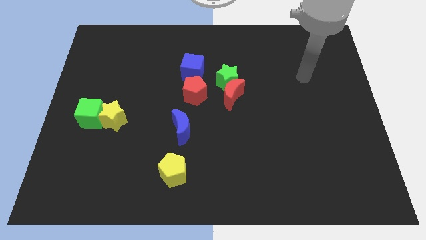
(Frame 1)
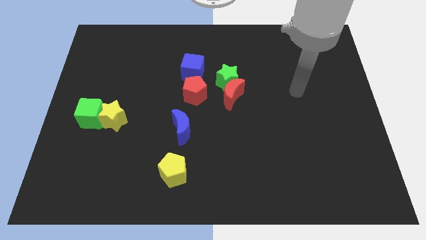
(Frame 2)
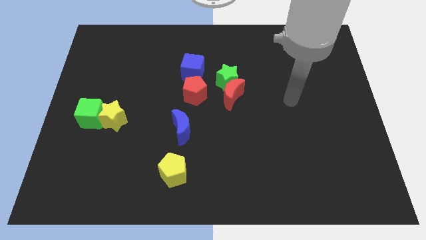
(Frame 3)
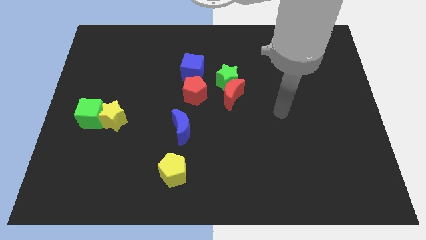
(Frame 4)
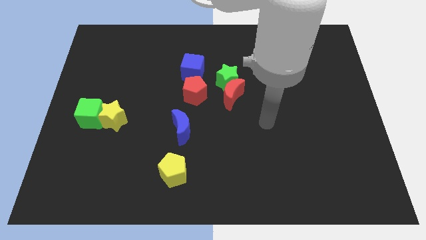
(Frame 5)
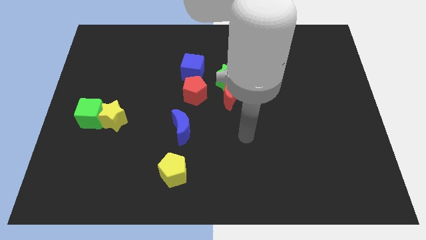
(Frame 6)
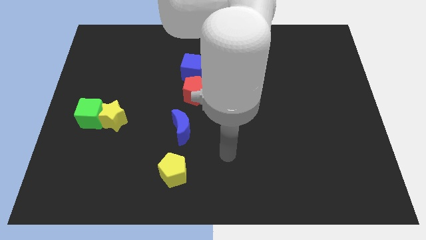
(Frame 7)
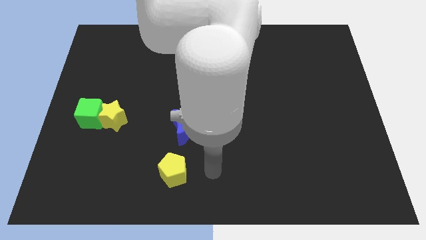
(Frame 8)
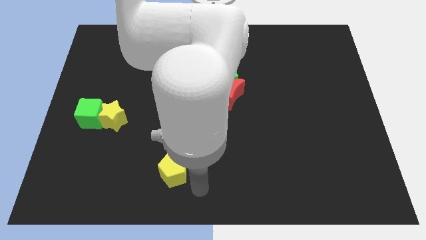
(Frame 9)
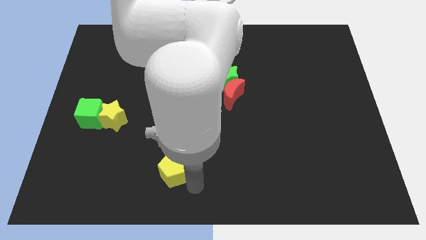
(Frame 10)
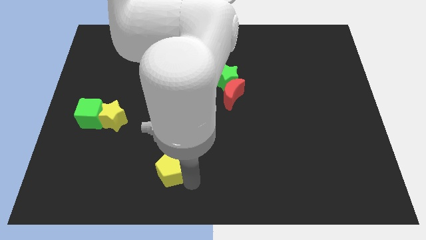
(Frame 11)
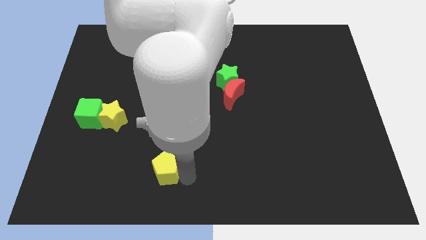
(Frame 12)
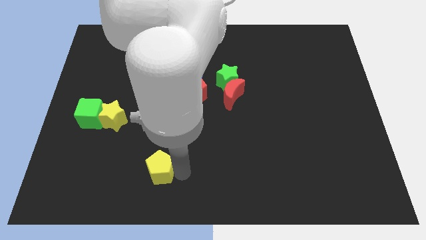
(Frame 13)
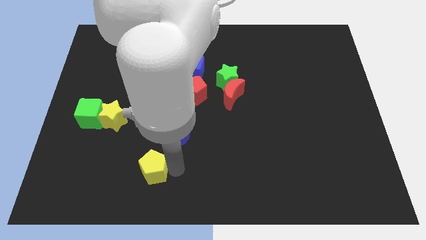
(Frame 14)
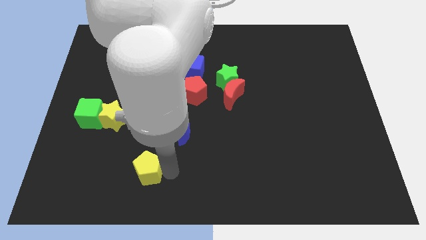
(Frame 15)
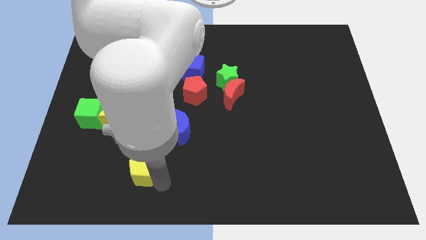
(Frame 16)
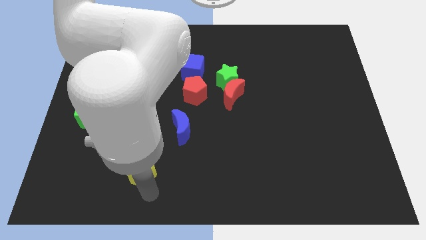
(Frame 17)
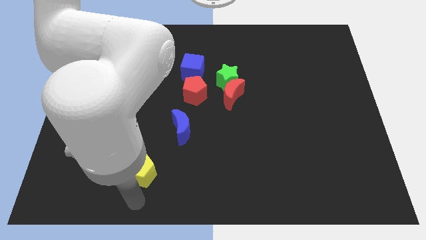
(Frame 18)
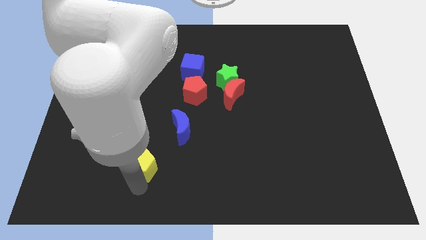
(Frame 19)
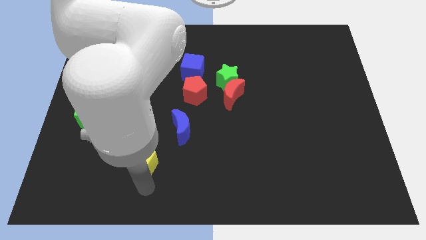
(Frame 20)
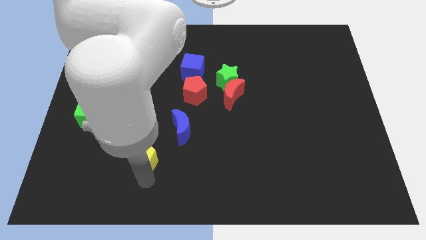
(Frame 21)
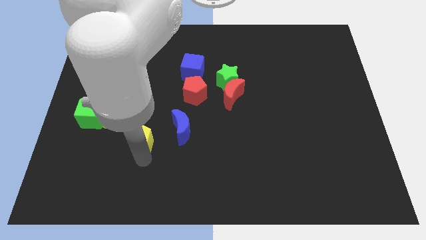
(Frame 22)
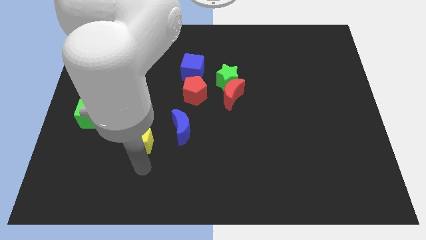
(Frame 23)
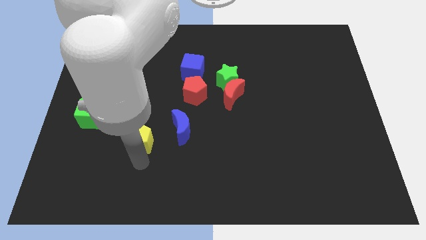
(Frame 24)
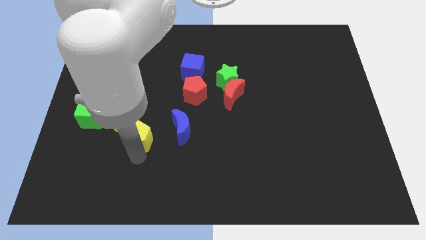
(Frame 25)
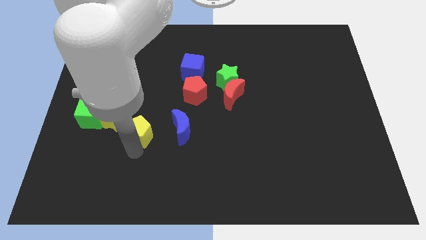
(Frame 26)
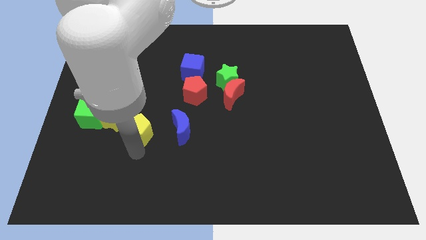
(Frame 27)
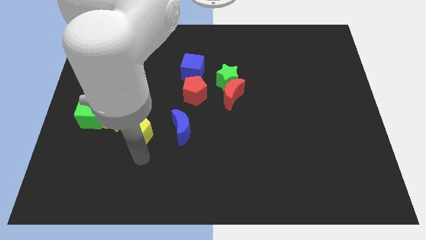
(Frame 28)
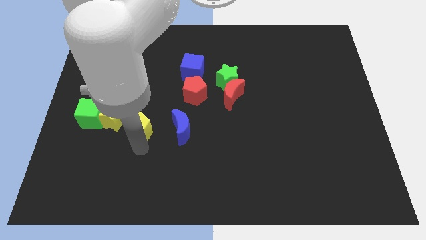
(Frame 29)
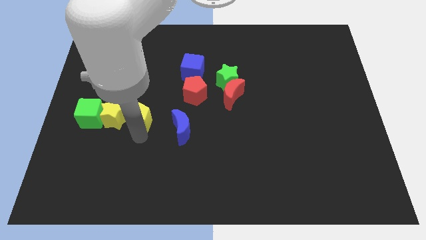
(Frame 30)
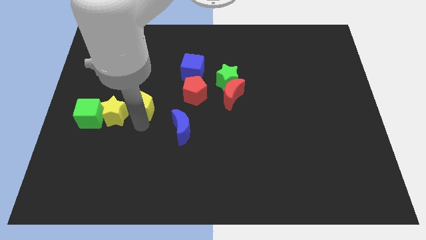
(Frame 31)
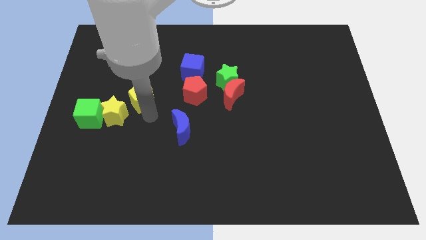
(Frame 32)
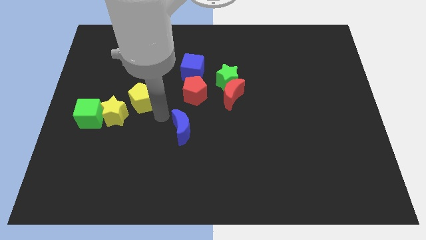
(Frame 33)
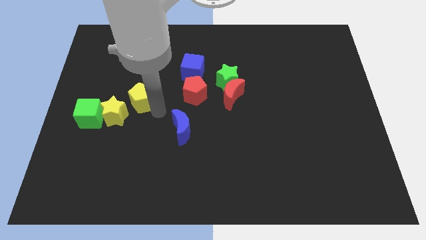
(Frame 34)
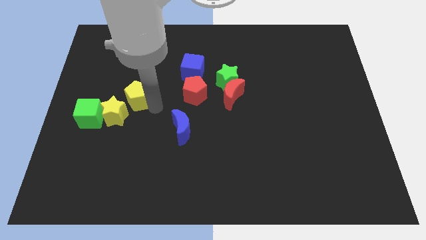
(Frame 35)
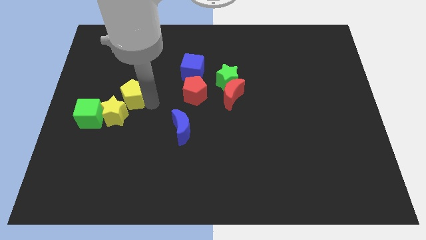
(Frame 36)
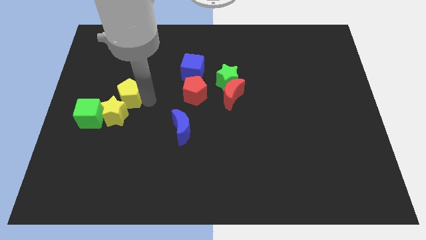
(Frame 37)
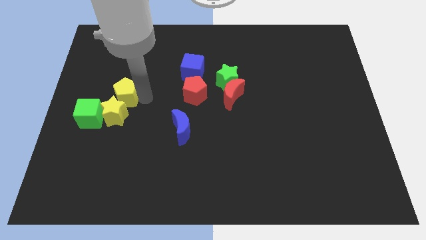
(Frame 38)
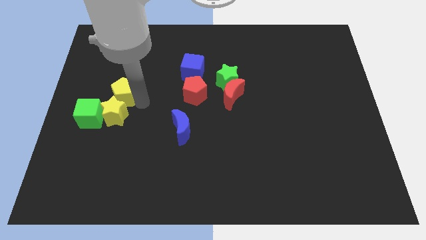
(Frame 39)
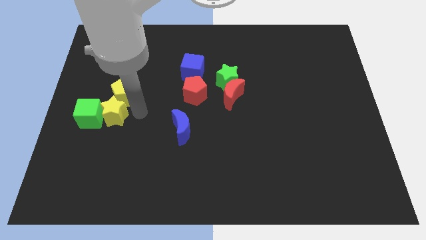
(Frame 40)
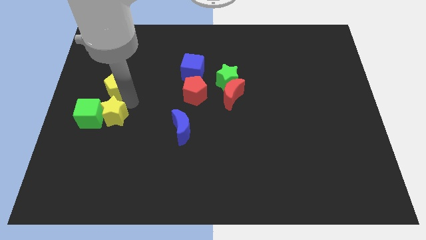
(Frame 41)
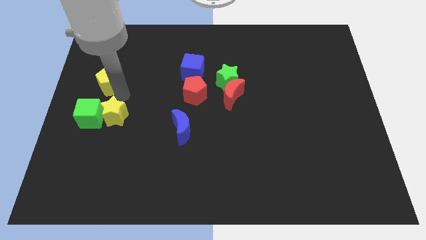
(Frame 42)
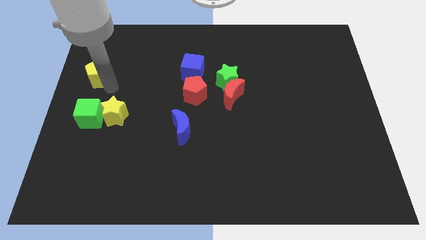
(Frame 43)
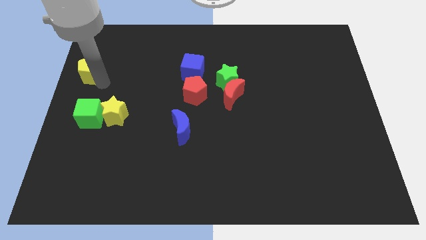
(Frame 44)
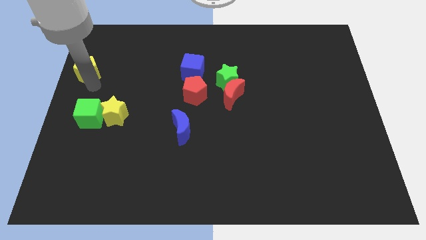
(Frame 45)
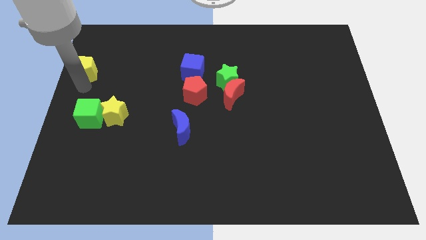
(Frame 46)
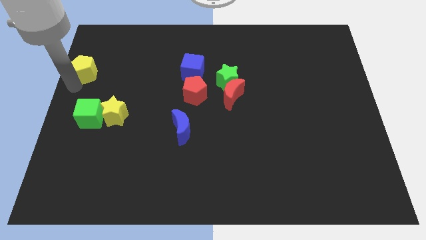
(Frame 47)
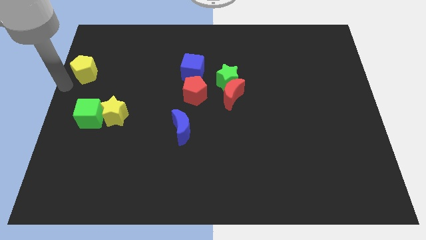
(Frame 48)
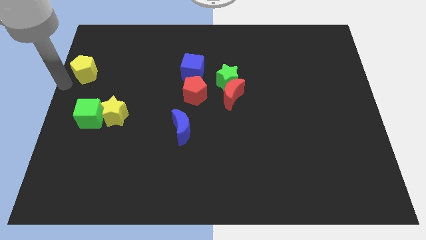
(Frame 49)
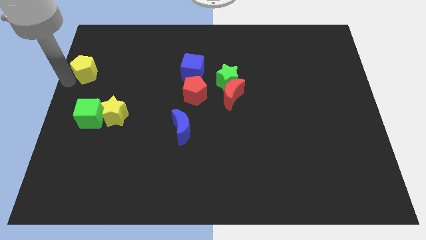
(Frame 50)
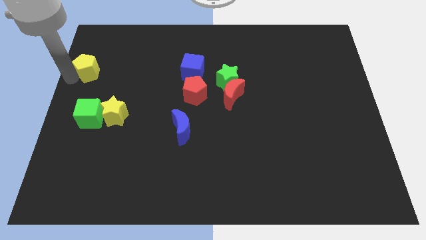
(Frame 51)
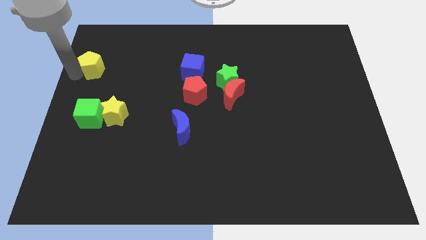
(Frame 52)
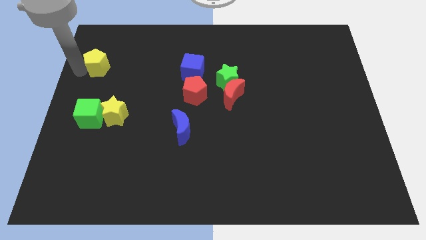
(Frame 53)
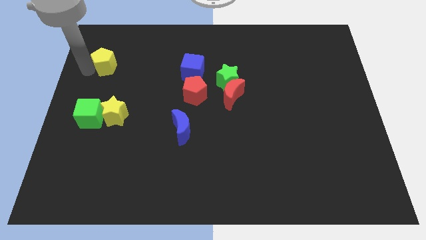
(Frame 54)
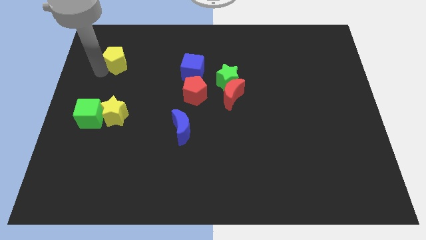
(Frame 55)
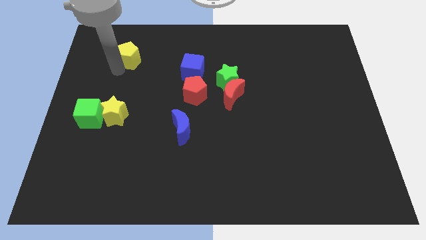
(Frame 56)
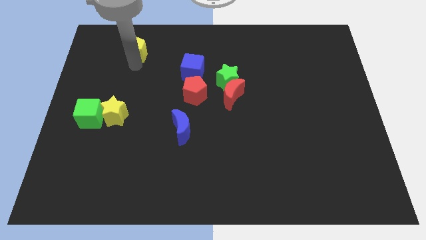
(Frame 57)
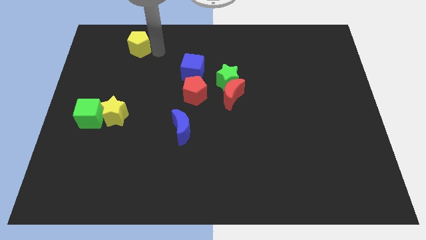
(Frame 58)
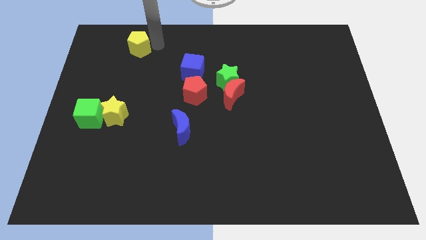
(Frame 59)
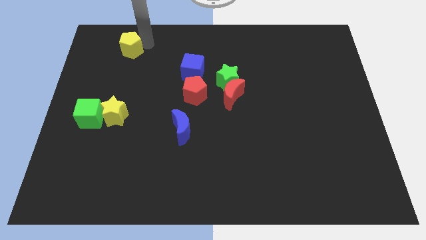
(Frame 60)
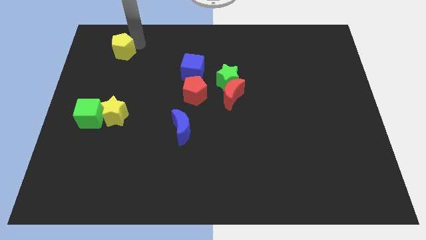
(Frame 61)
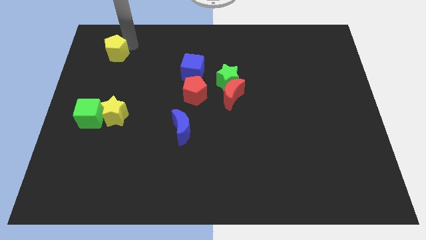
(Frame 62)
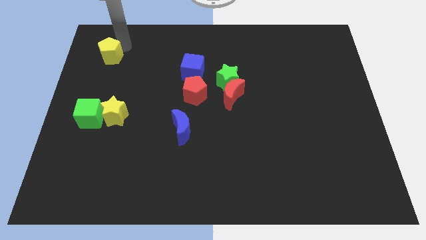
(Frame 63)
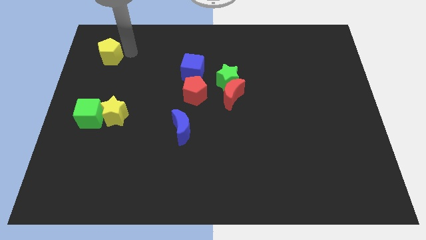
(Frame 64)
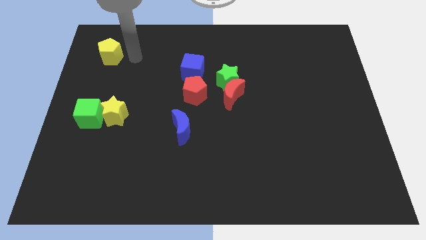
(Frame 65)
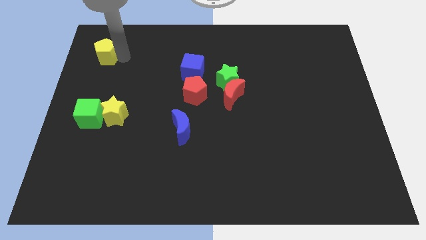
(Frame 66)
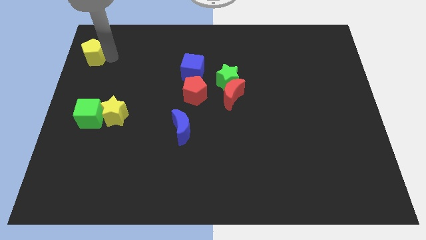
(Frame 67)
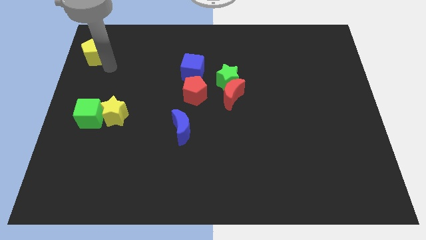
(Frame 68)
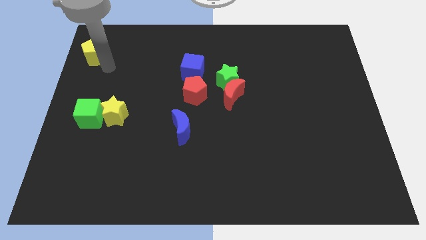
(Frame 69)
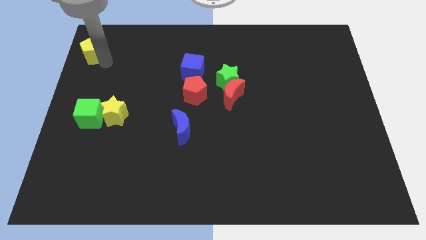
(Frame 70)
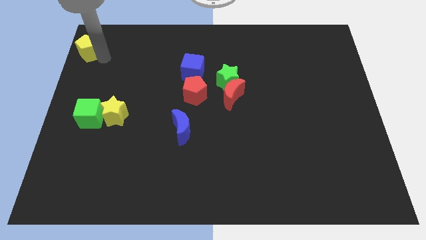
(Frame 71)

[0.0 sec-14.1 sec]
slide the yellow pentagon to the top left corner
